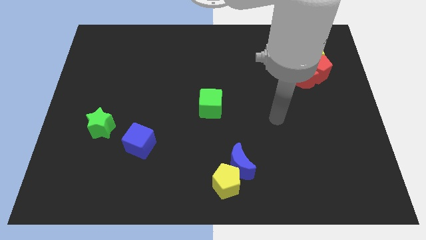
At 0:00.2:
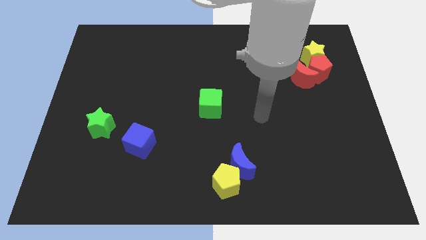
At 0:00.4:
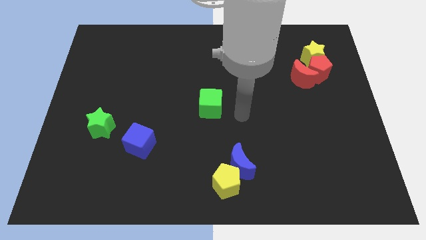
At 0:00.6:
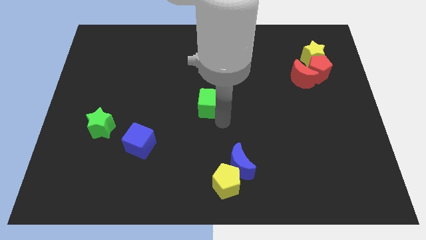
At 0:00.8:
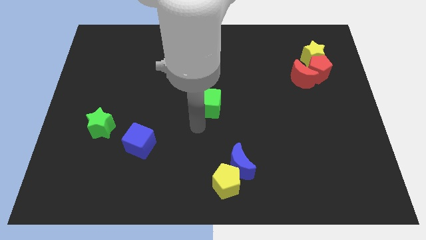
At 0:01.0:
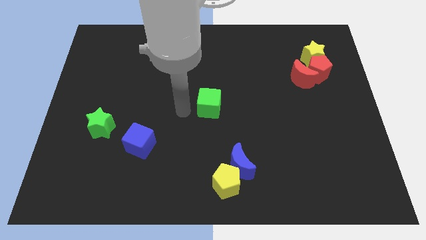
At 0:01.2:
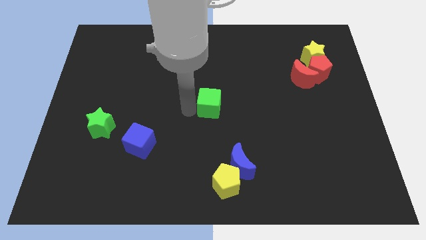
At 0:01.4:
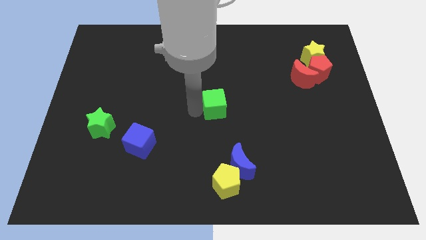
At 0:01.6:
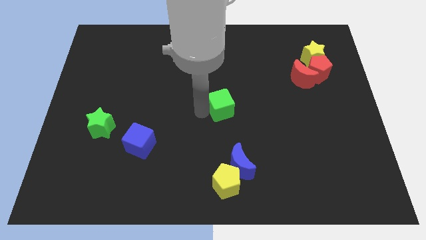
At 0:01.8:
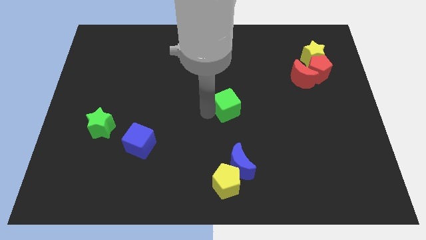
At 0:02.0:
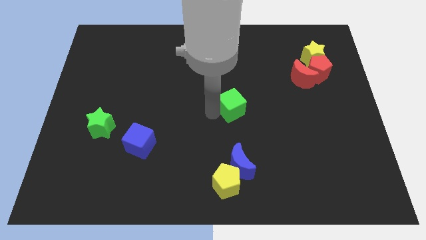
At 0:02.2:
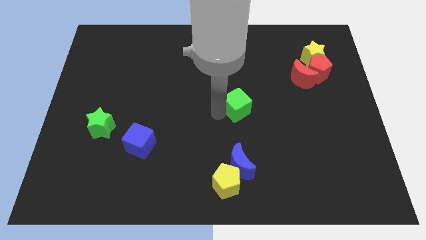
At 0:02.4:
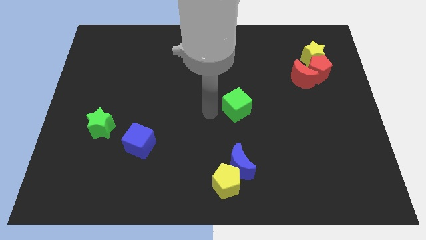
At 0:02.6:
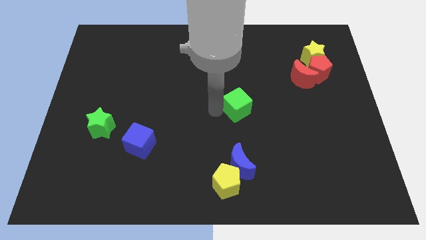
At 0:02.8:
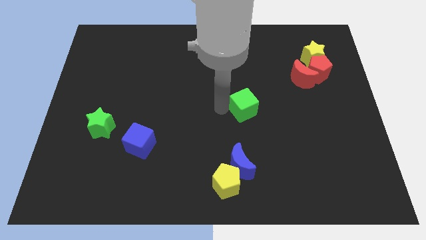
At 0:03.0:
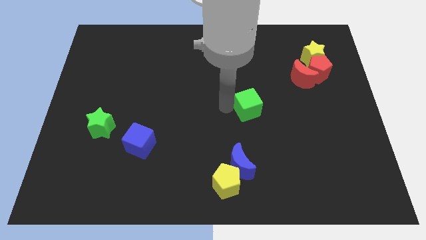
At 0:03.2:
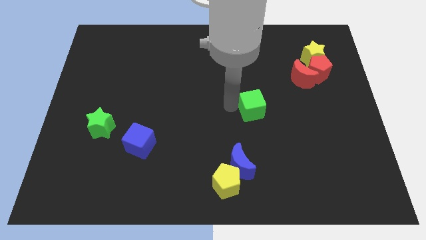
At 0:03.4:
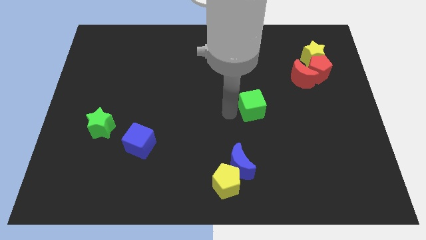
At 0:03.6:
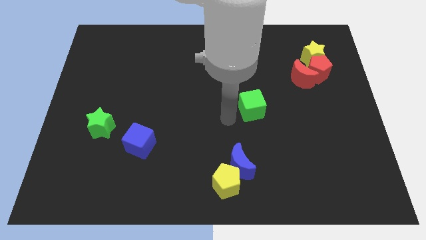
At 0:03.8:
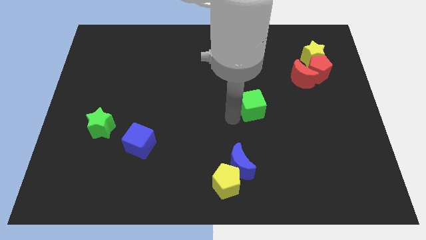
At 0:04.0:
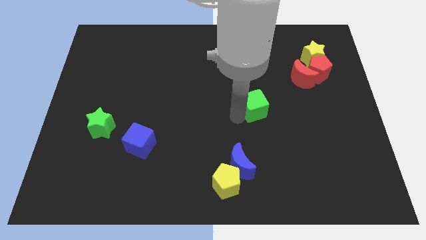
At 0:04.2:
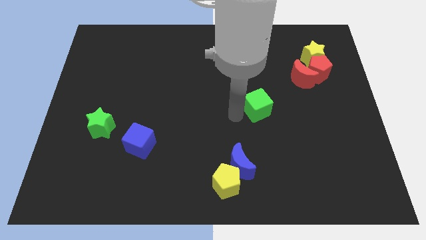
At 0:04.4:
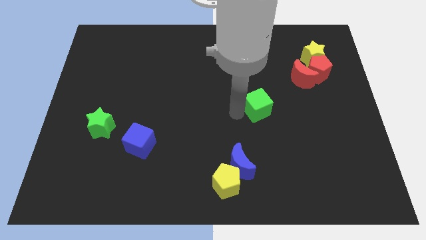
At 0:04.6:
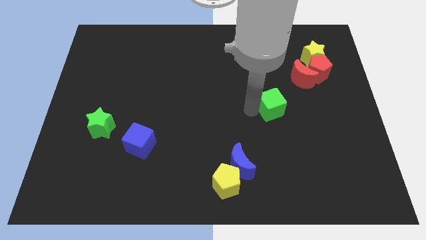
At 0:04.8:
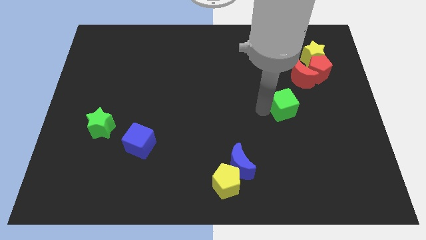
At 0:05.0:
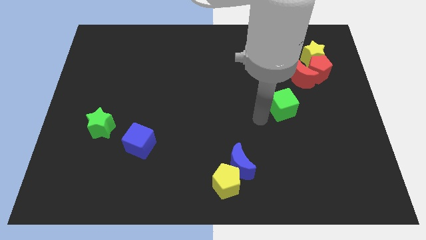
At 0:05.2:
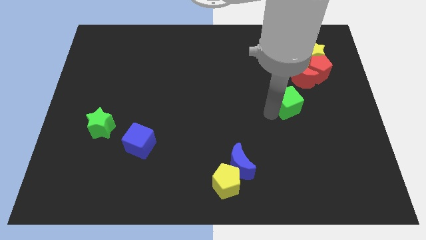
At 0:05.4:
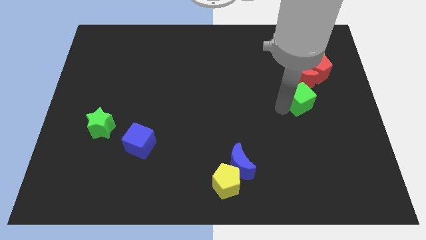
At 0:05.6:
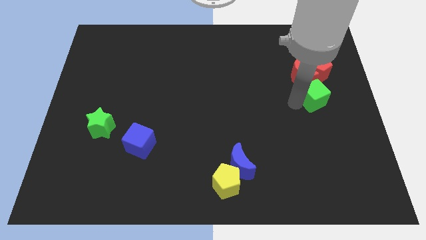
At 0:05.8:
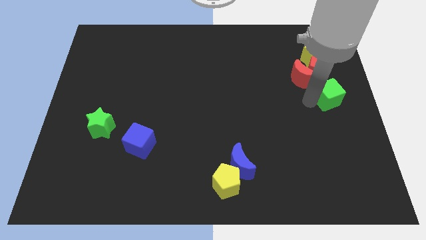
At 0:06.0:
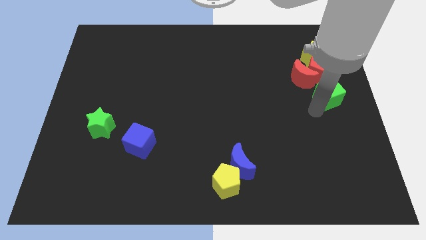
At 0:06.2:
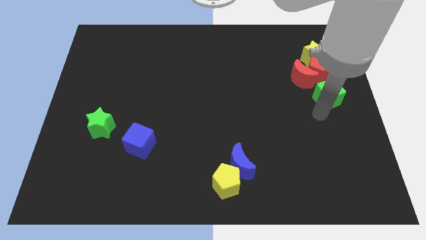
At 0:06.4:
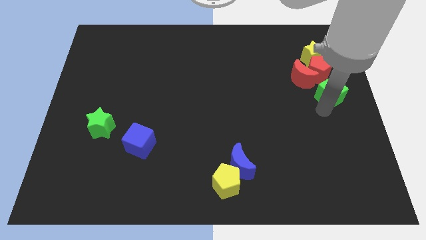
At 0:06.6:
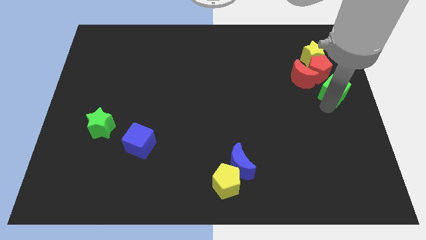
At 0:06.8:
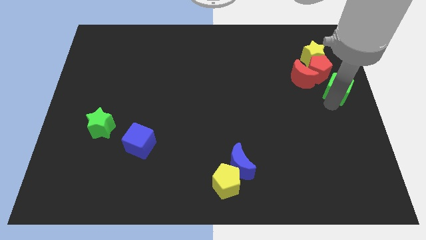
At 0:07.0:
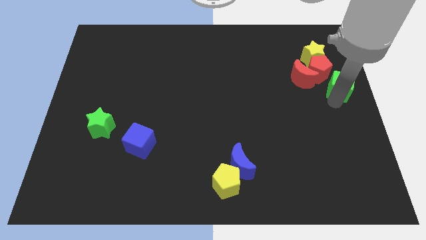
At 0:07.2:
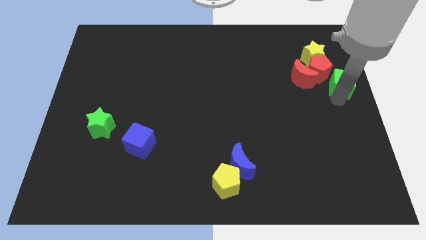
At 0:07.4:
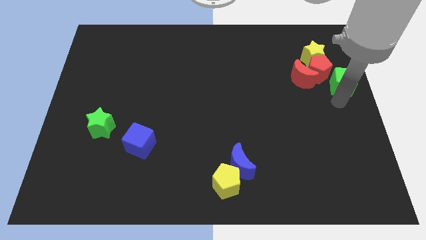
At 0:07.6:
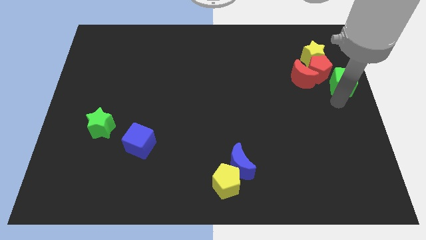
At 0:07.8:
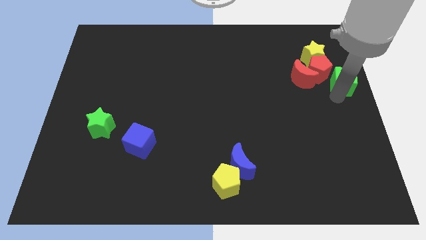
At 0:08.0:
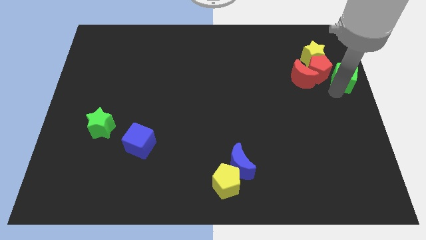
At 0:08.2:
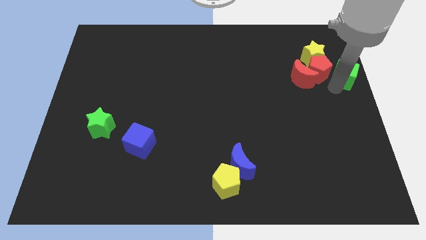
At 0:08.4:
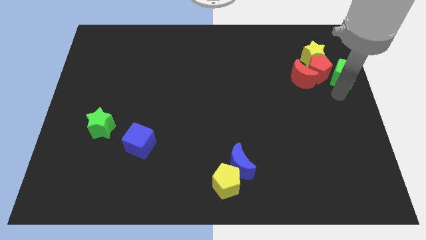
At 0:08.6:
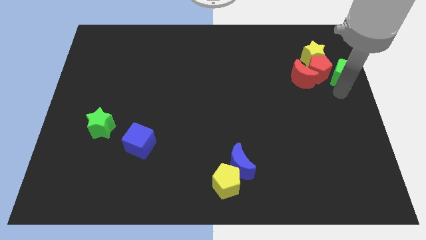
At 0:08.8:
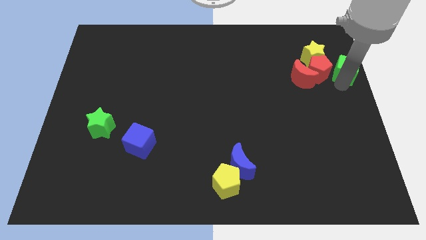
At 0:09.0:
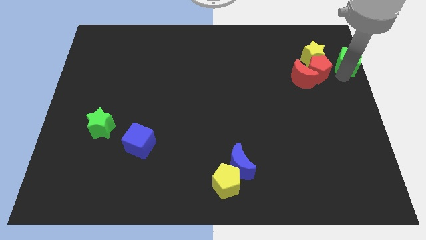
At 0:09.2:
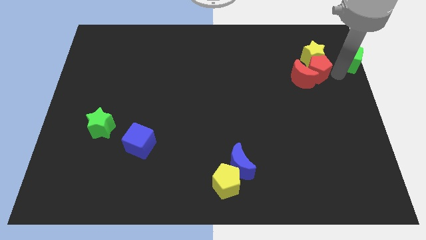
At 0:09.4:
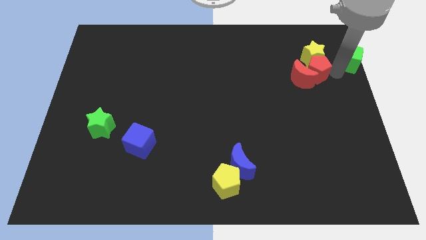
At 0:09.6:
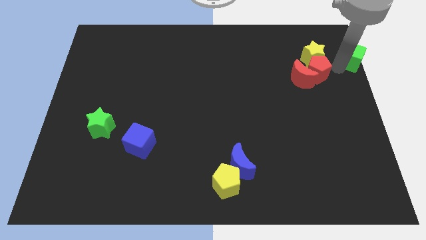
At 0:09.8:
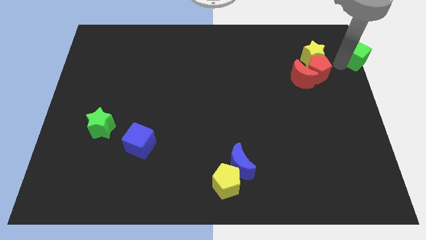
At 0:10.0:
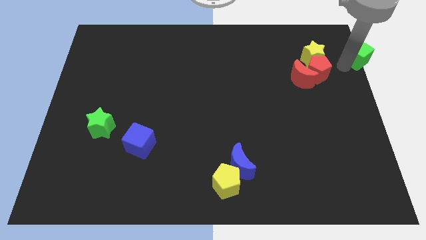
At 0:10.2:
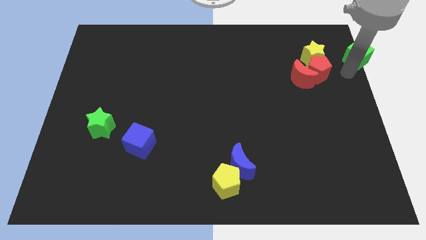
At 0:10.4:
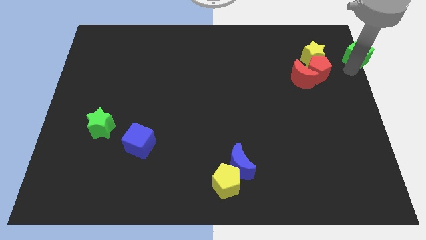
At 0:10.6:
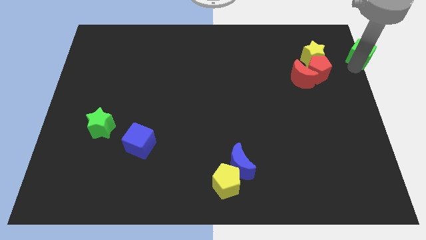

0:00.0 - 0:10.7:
push the green cube to the upper right corner

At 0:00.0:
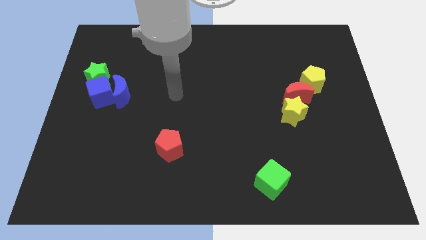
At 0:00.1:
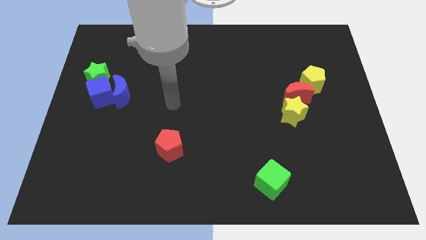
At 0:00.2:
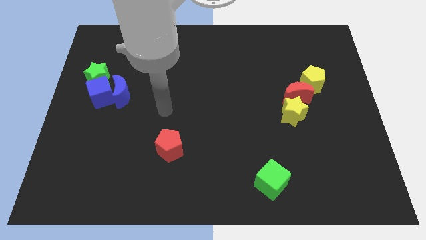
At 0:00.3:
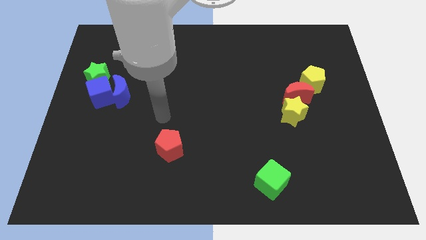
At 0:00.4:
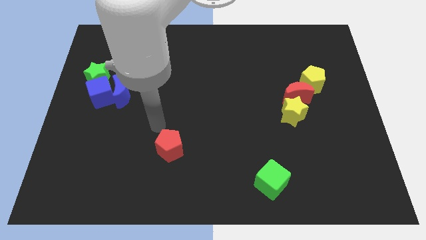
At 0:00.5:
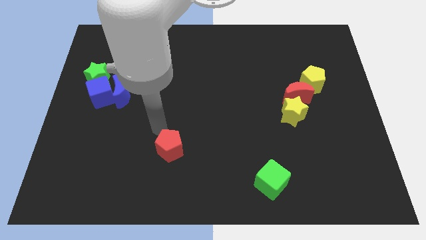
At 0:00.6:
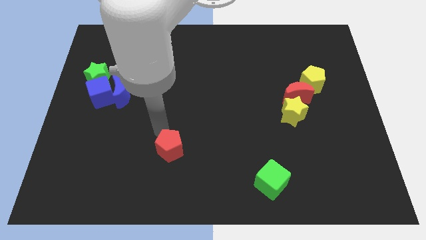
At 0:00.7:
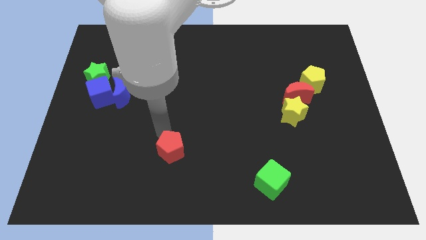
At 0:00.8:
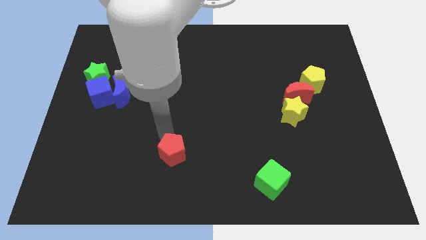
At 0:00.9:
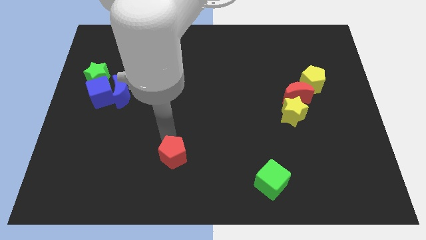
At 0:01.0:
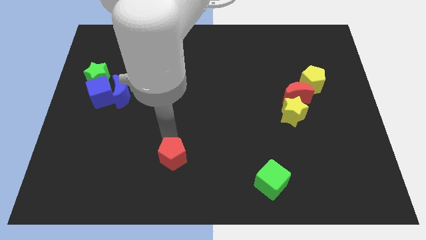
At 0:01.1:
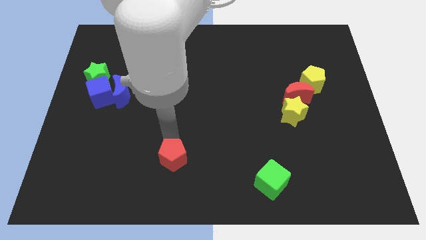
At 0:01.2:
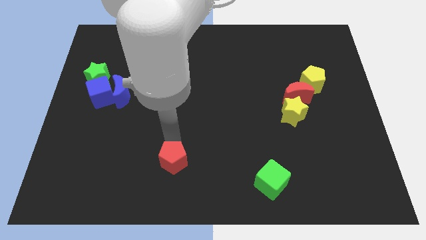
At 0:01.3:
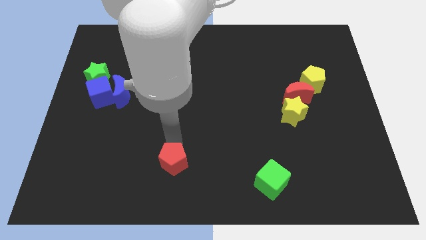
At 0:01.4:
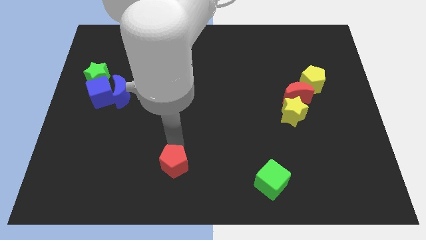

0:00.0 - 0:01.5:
slide the red pentagon to the bottom side
